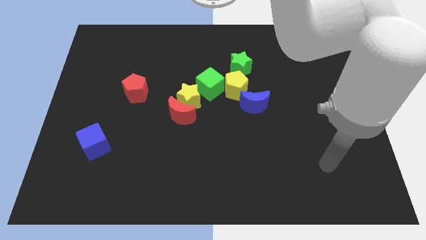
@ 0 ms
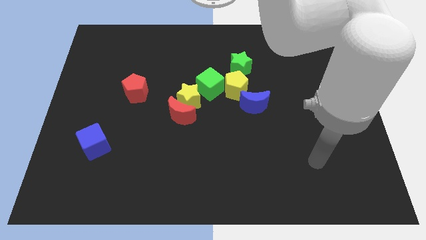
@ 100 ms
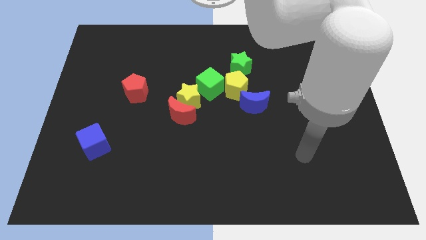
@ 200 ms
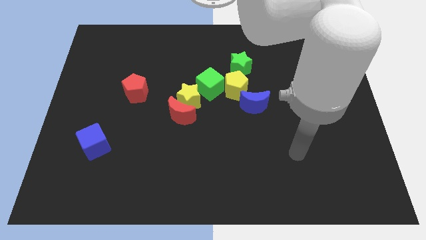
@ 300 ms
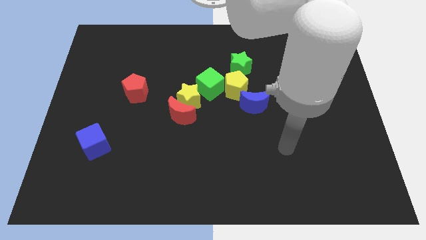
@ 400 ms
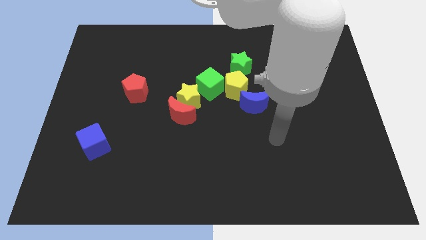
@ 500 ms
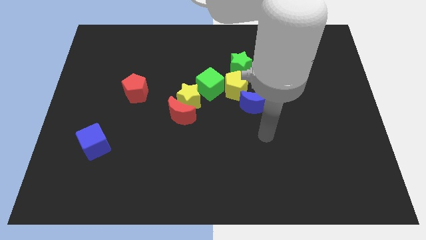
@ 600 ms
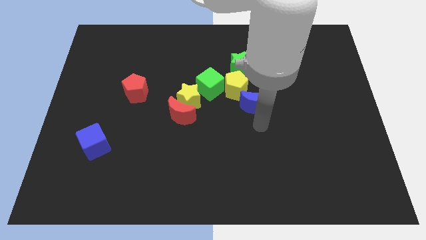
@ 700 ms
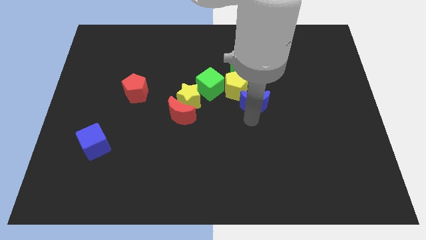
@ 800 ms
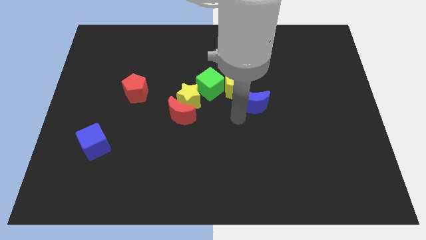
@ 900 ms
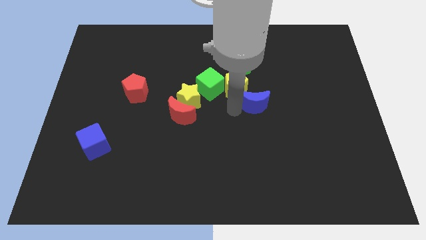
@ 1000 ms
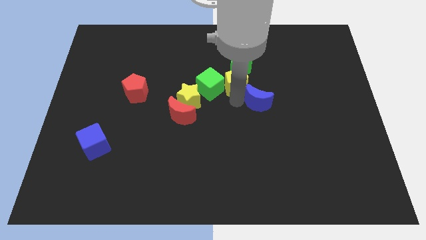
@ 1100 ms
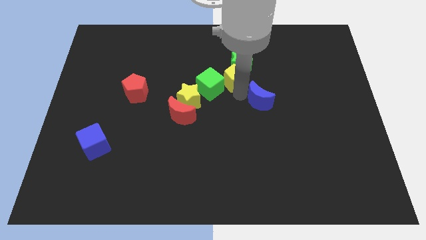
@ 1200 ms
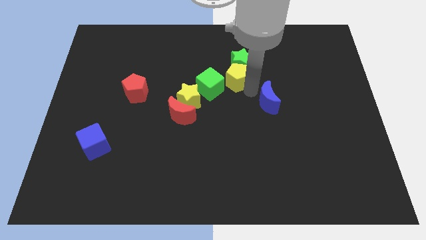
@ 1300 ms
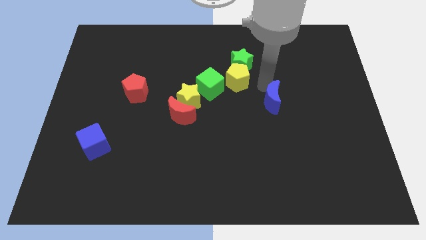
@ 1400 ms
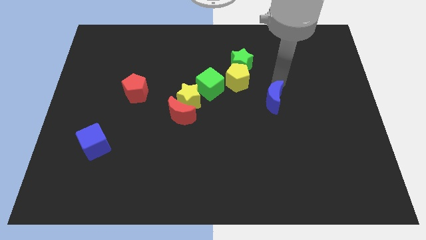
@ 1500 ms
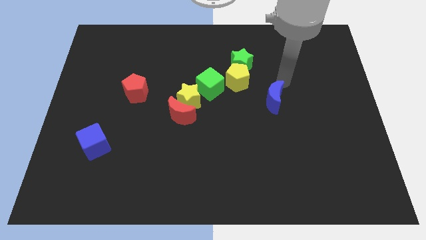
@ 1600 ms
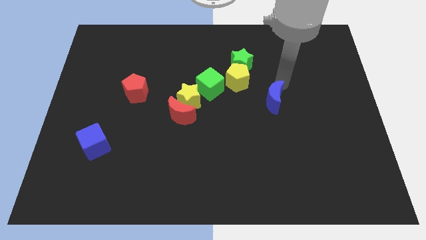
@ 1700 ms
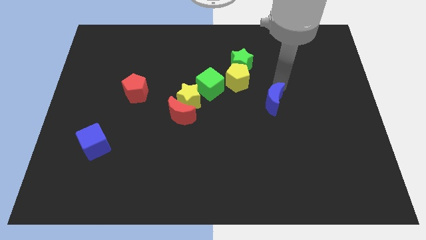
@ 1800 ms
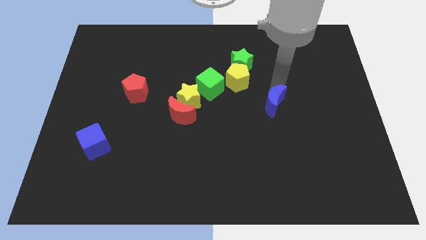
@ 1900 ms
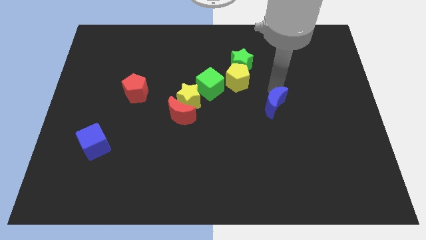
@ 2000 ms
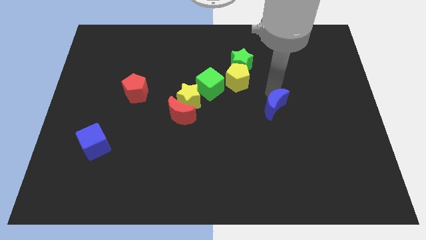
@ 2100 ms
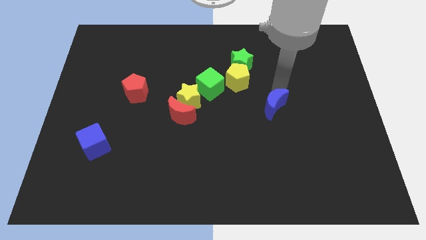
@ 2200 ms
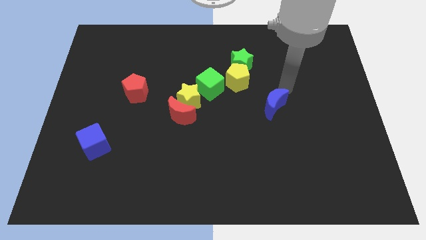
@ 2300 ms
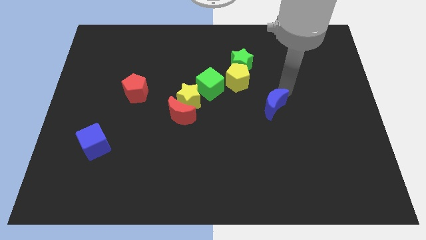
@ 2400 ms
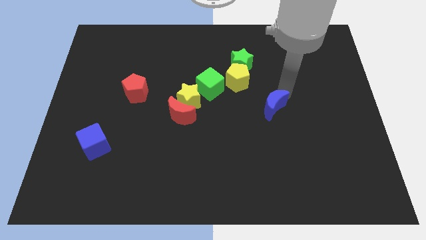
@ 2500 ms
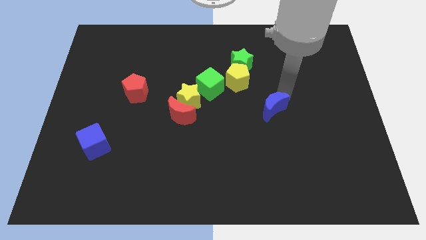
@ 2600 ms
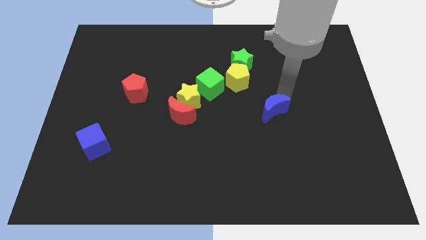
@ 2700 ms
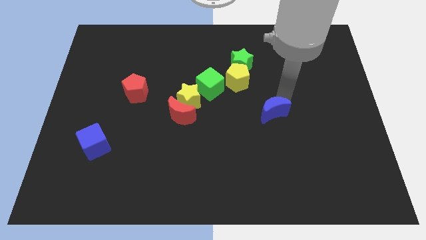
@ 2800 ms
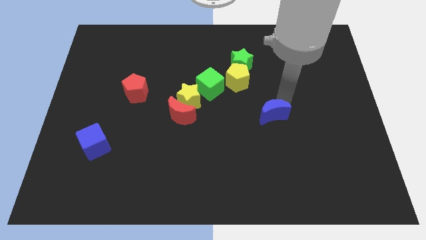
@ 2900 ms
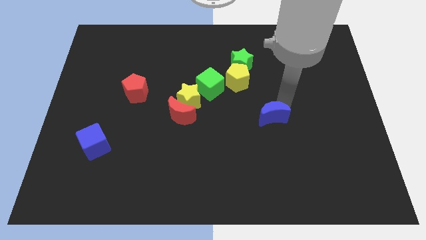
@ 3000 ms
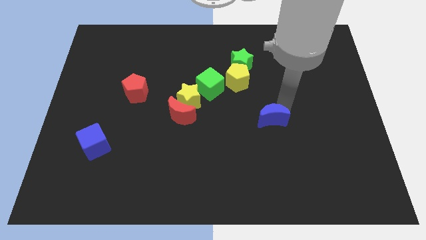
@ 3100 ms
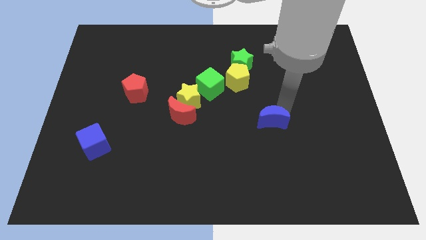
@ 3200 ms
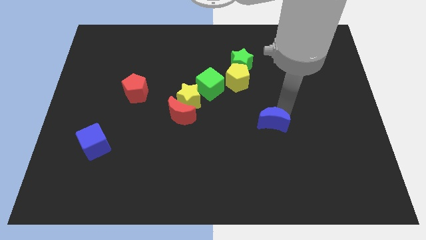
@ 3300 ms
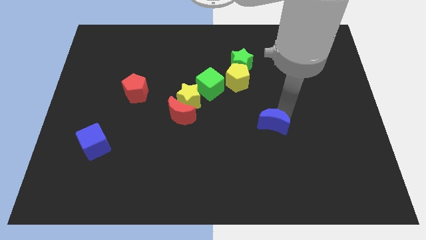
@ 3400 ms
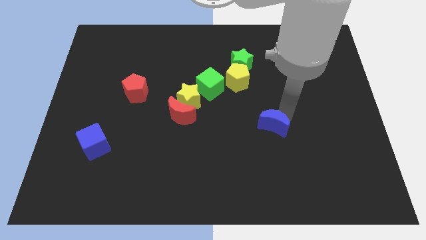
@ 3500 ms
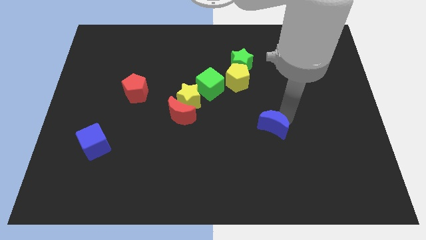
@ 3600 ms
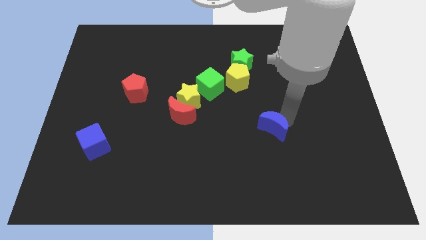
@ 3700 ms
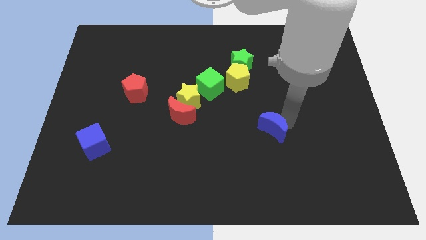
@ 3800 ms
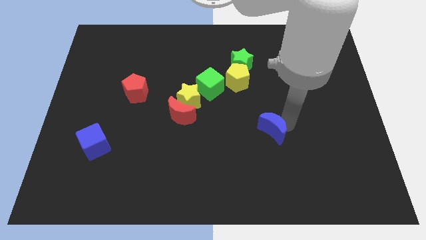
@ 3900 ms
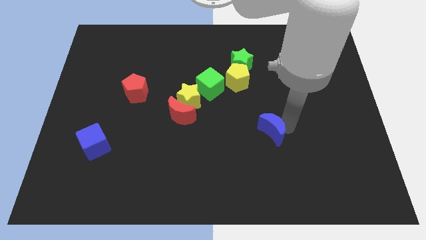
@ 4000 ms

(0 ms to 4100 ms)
move the blue moon a little downwards

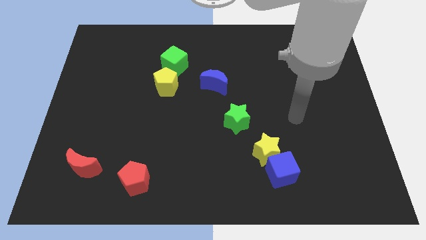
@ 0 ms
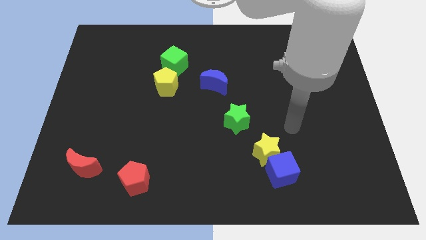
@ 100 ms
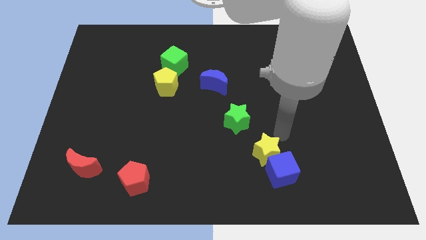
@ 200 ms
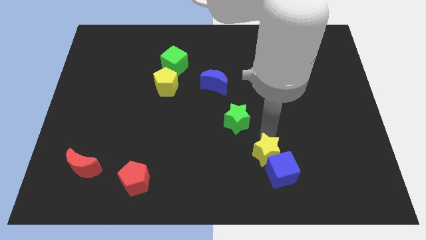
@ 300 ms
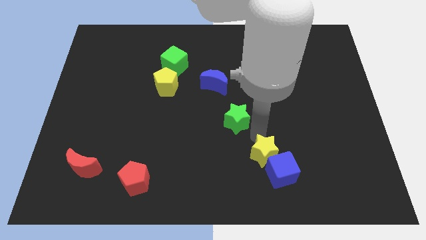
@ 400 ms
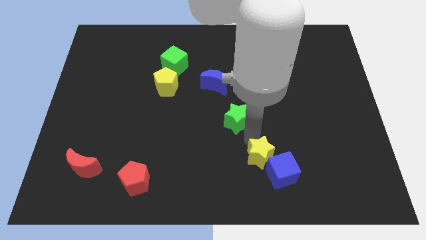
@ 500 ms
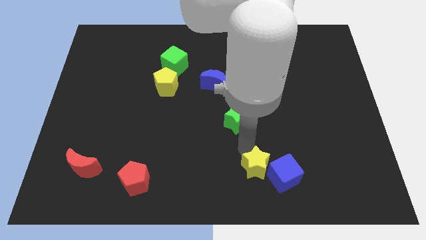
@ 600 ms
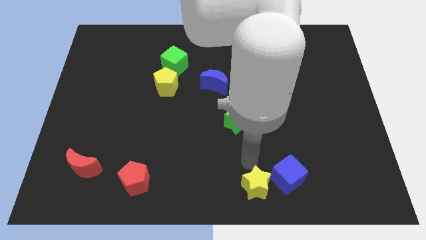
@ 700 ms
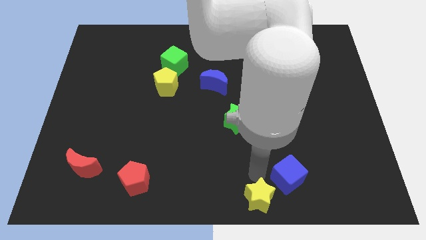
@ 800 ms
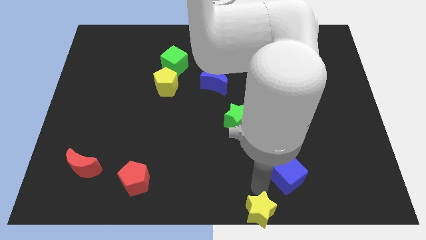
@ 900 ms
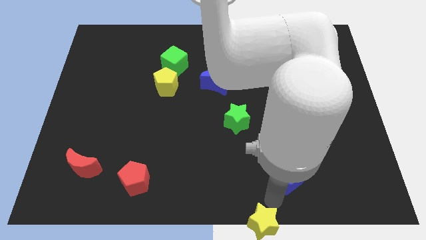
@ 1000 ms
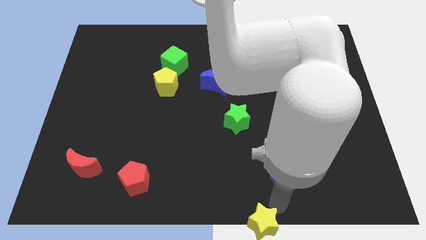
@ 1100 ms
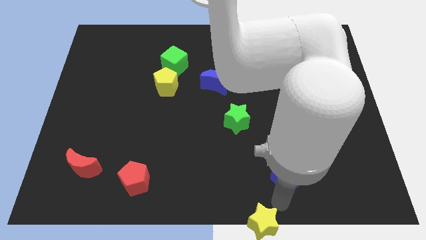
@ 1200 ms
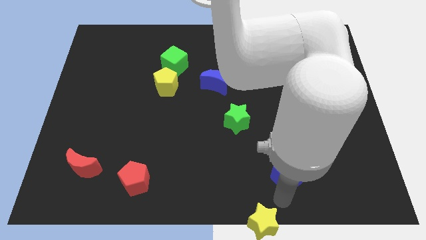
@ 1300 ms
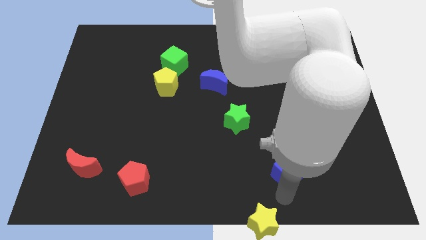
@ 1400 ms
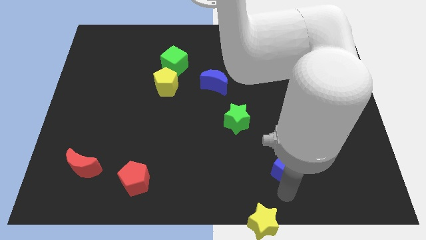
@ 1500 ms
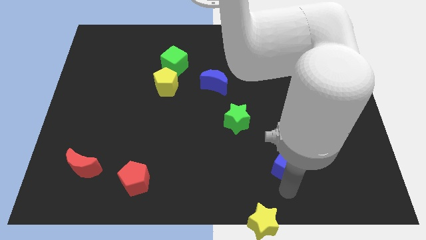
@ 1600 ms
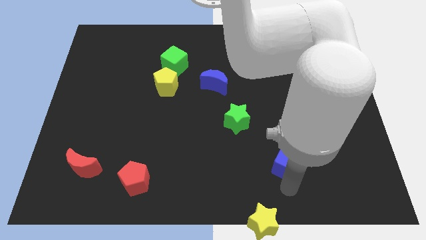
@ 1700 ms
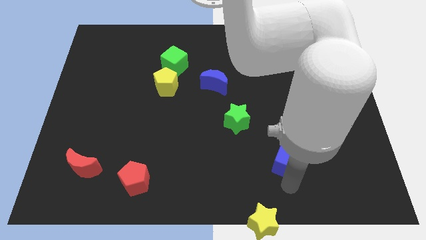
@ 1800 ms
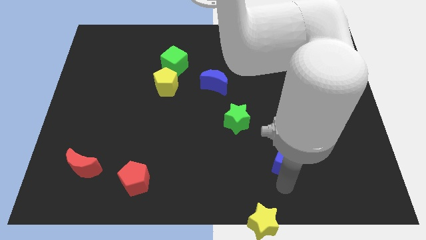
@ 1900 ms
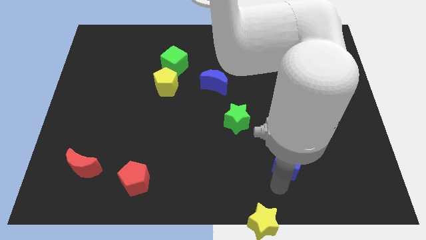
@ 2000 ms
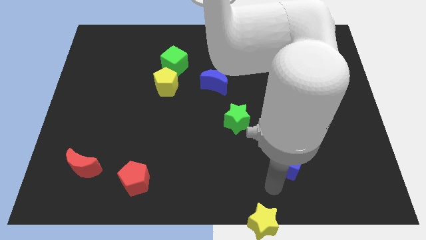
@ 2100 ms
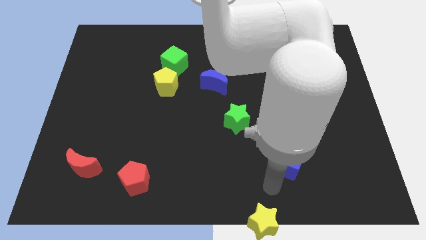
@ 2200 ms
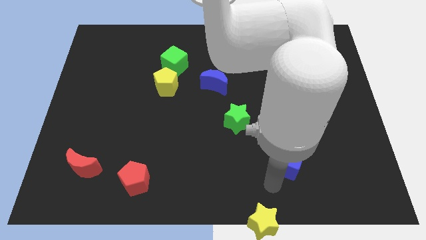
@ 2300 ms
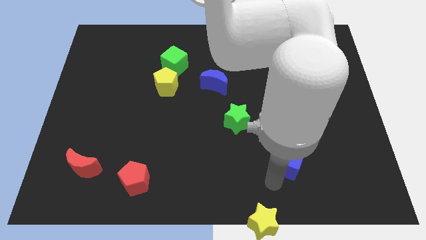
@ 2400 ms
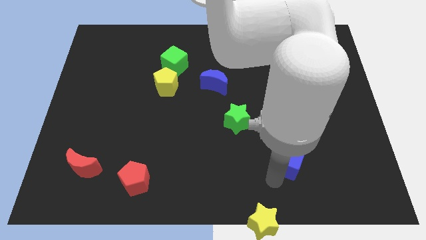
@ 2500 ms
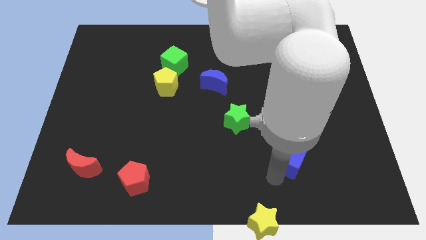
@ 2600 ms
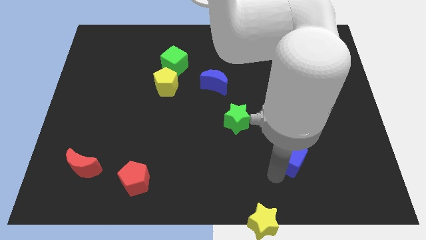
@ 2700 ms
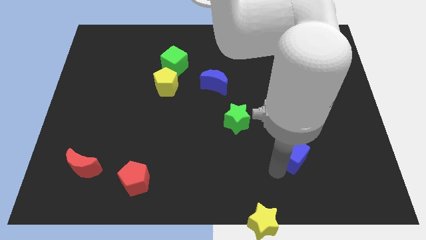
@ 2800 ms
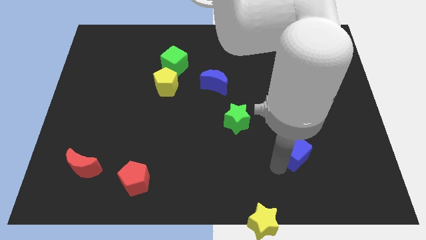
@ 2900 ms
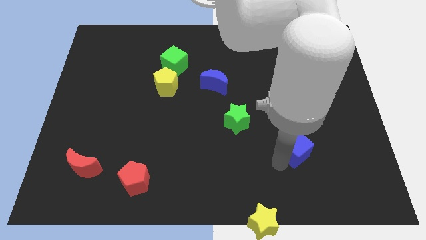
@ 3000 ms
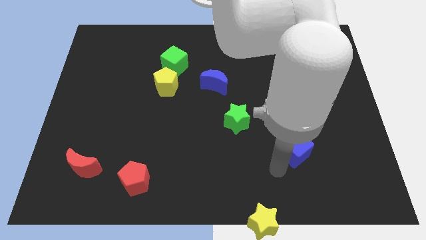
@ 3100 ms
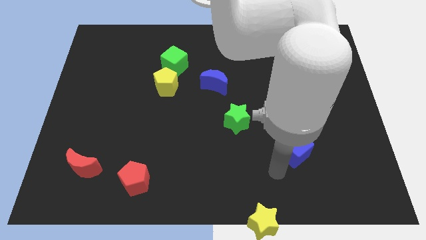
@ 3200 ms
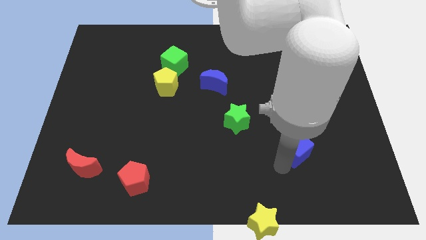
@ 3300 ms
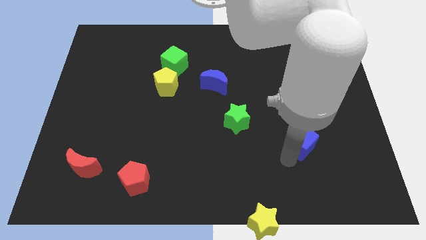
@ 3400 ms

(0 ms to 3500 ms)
slightly push the blue cube up and then right

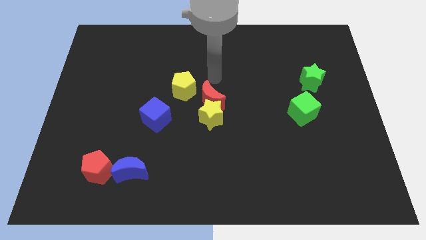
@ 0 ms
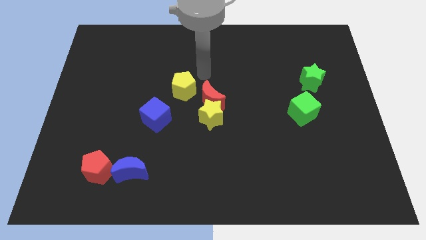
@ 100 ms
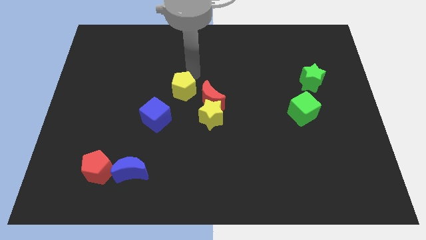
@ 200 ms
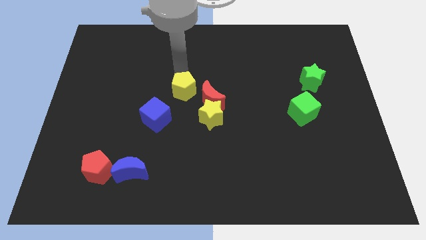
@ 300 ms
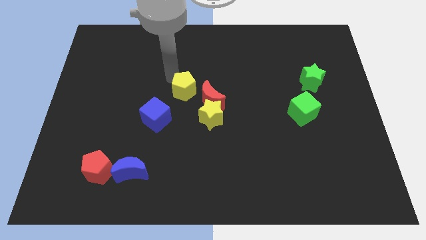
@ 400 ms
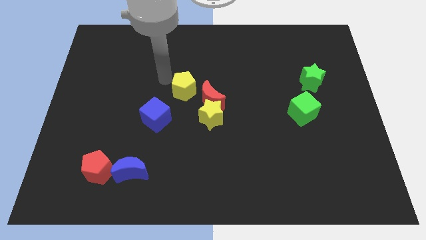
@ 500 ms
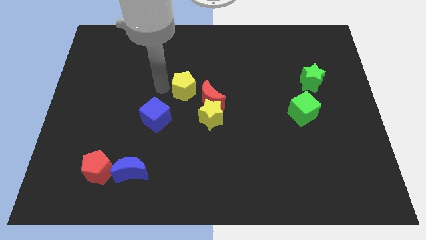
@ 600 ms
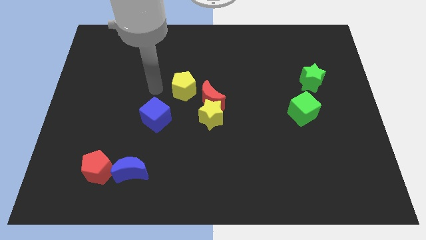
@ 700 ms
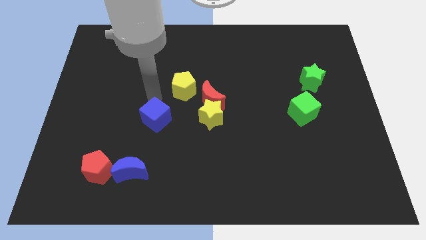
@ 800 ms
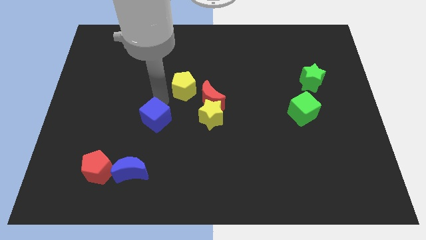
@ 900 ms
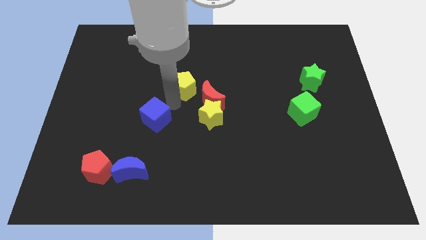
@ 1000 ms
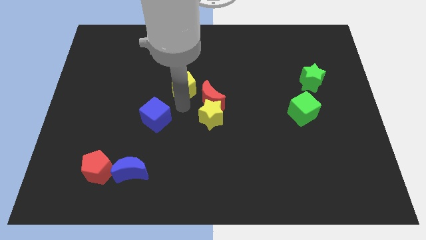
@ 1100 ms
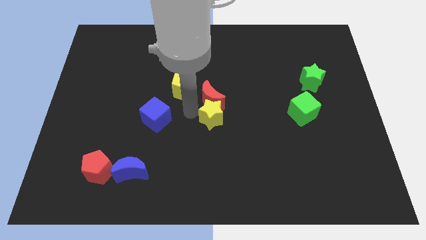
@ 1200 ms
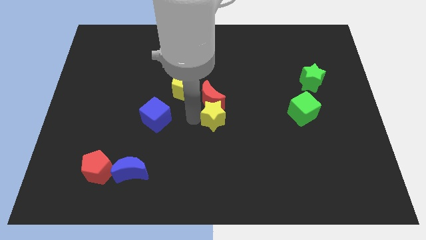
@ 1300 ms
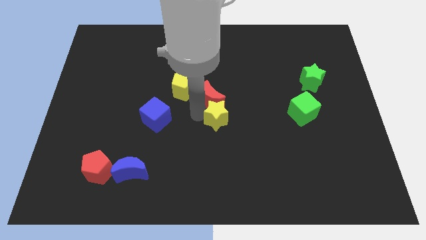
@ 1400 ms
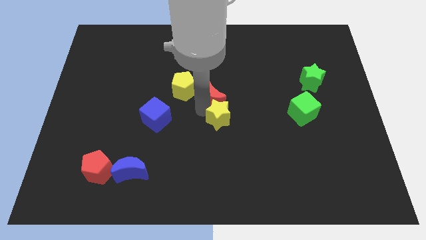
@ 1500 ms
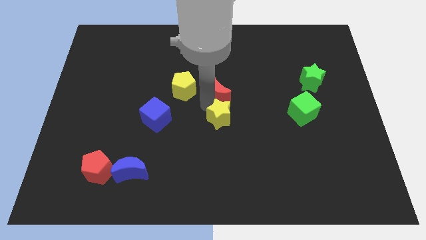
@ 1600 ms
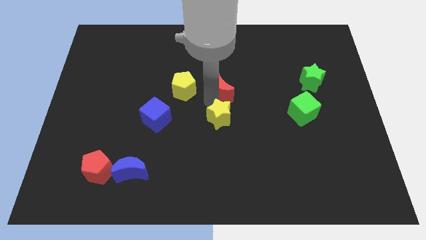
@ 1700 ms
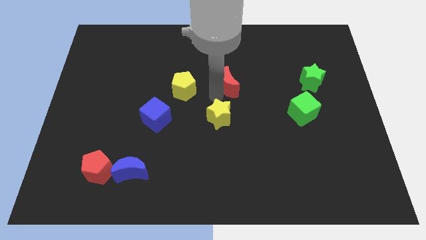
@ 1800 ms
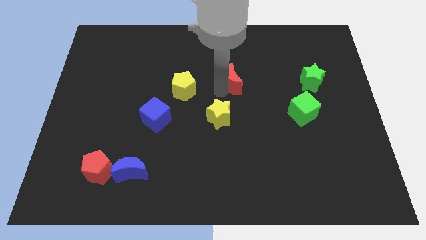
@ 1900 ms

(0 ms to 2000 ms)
slide the red moon up and to the right diagonally somewhat
